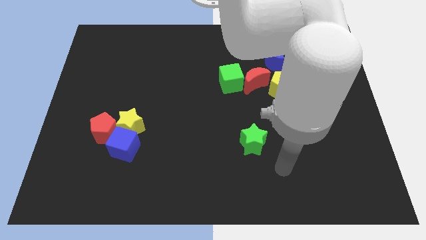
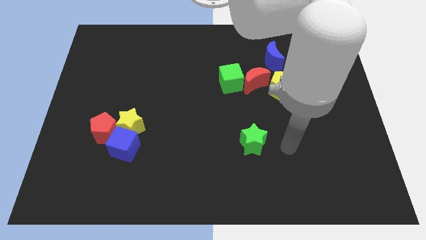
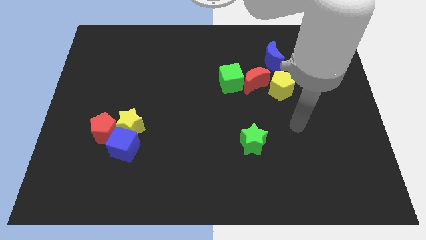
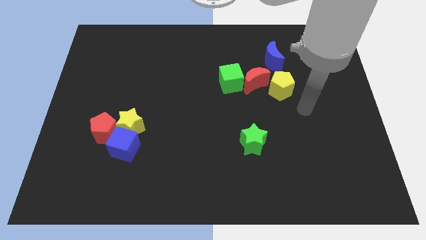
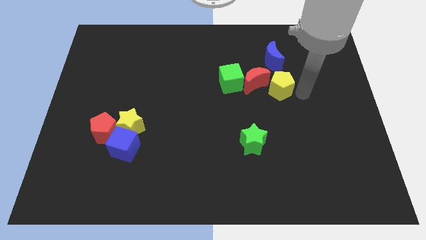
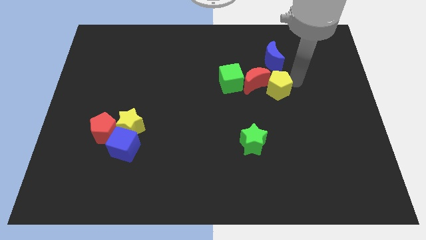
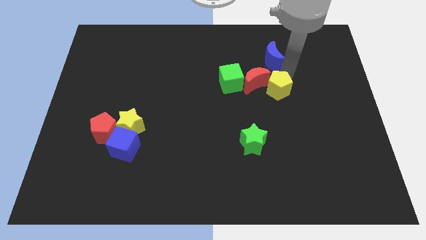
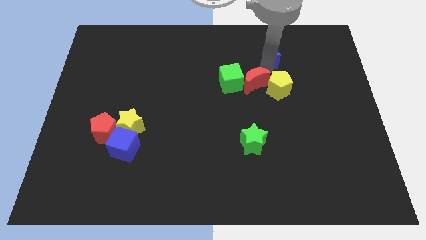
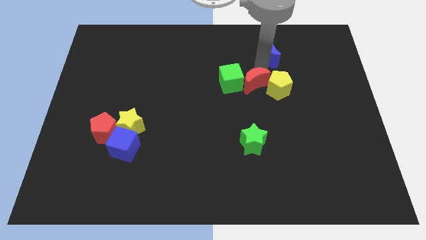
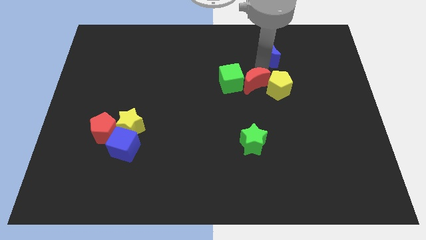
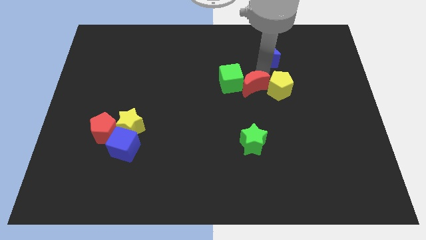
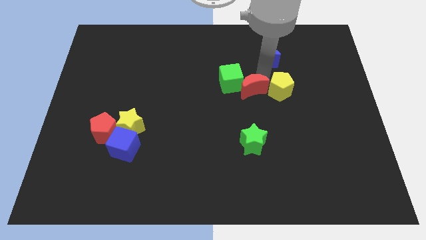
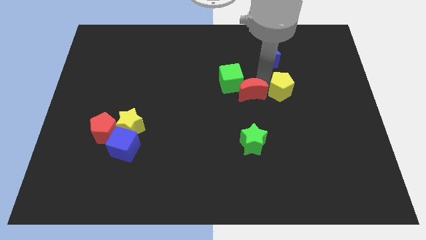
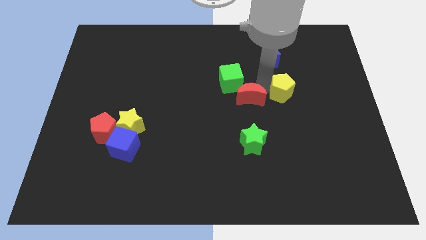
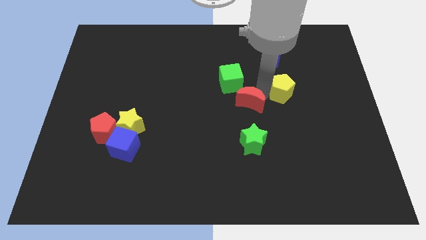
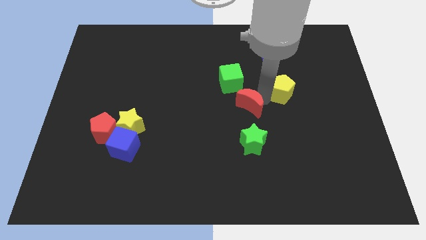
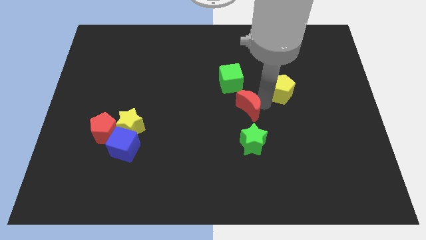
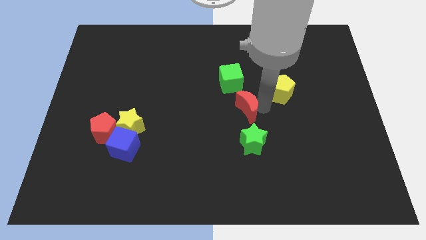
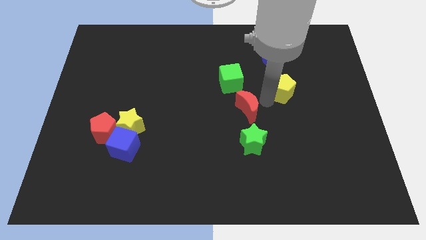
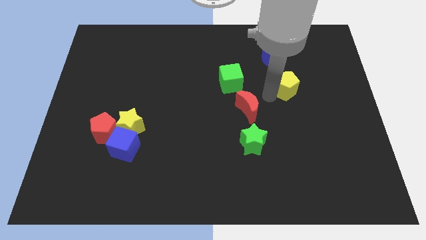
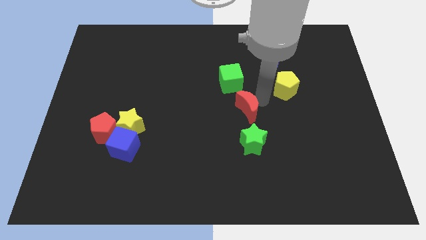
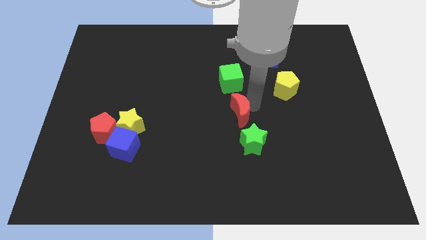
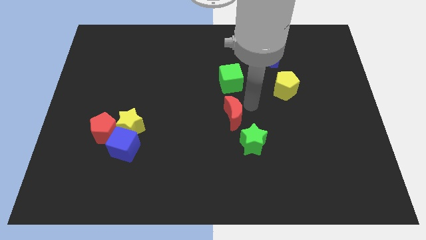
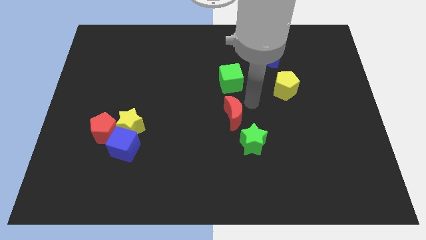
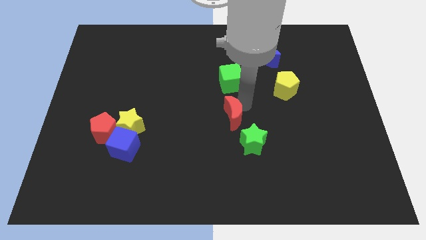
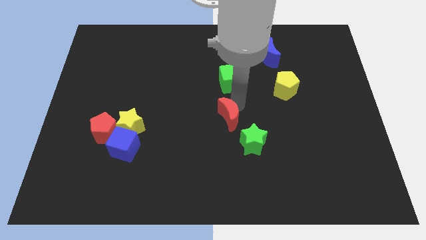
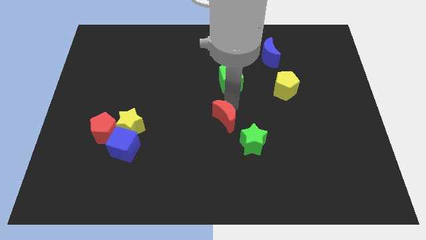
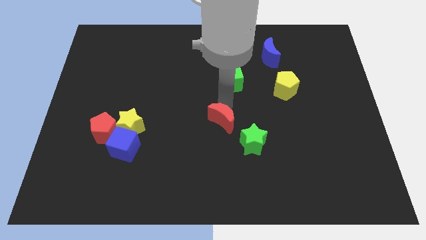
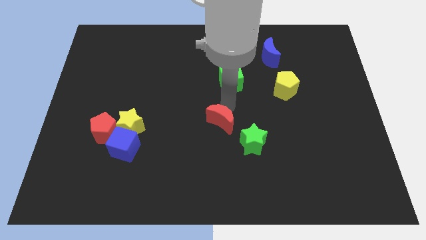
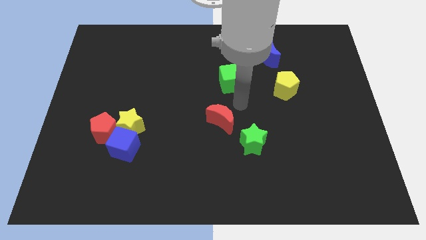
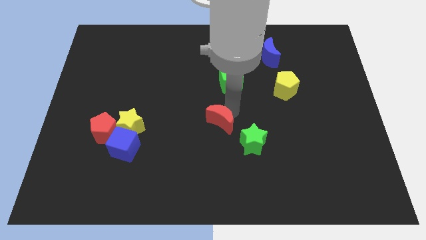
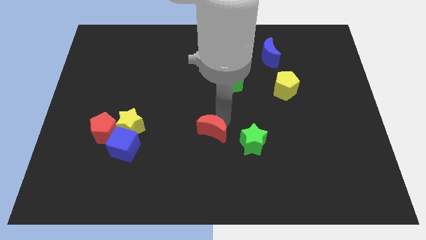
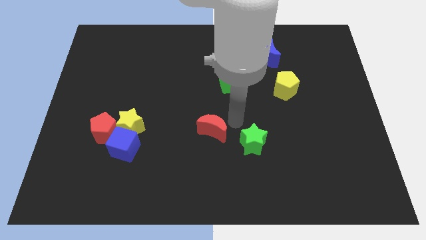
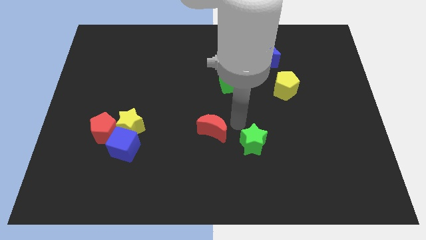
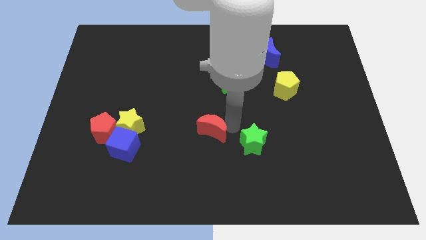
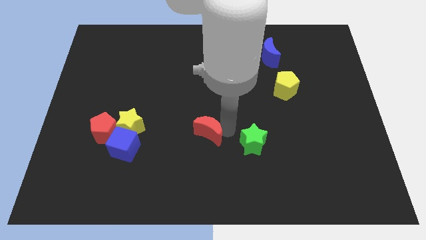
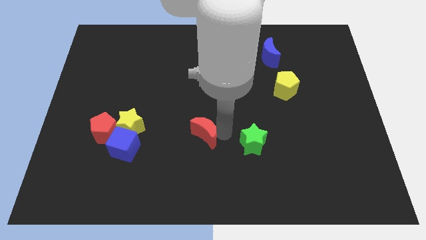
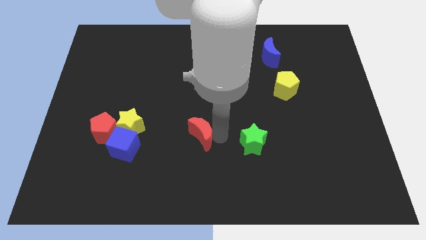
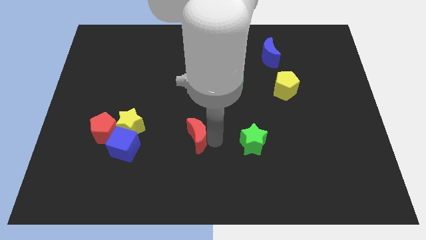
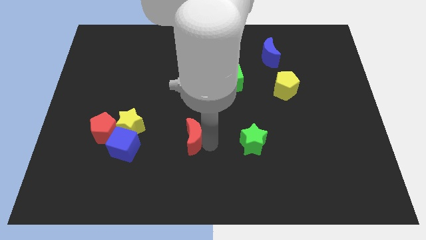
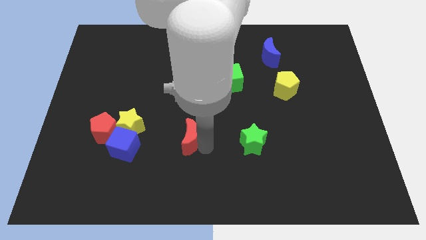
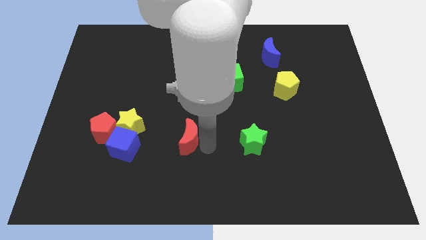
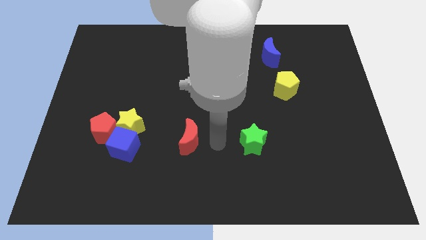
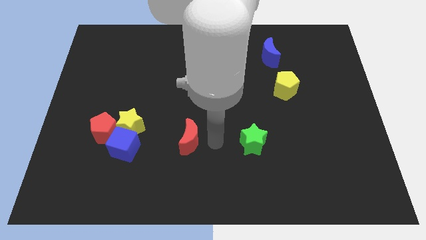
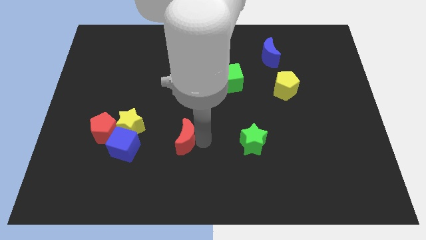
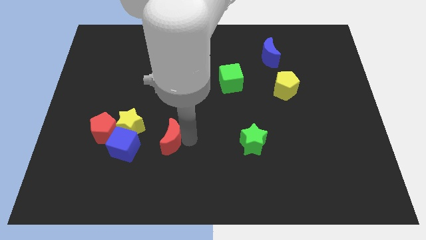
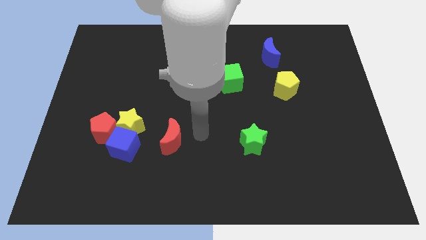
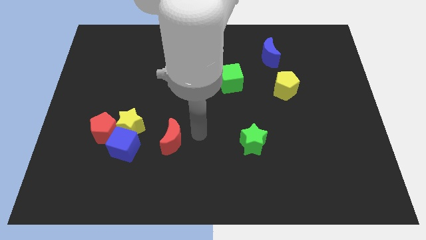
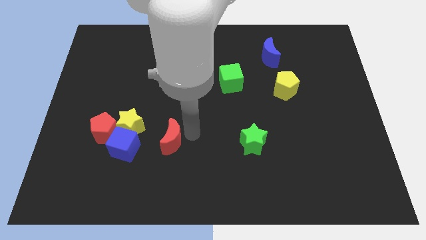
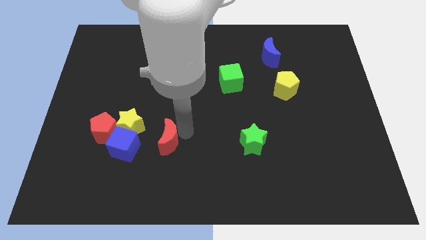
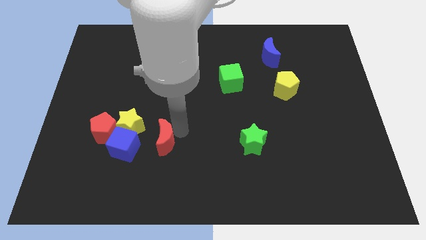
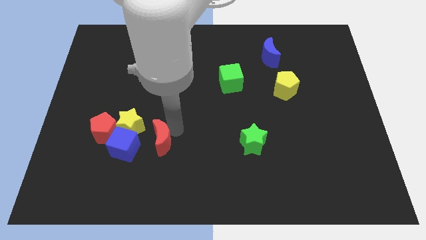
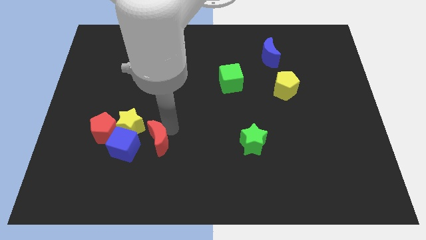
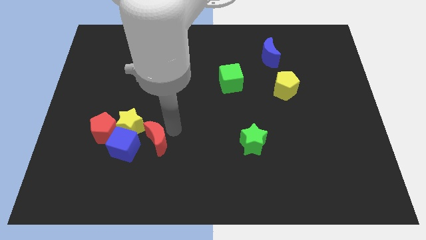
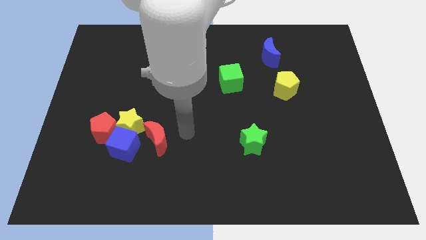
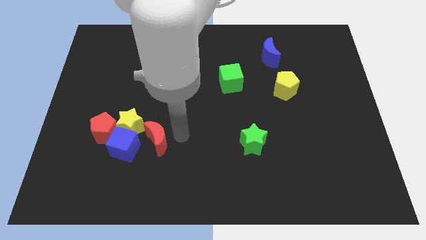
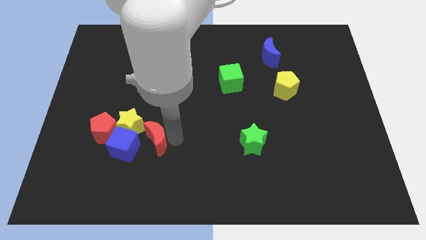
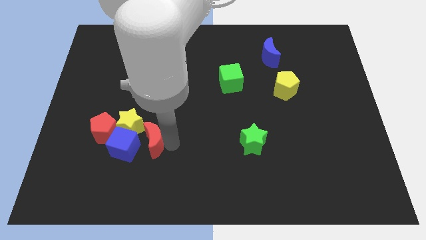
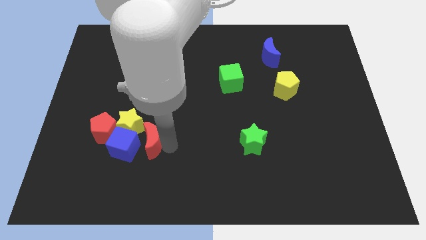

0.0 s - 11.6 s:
put the red moon next to the blue cube

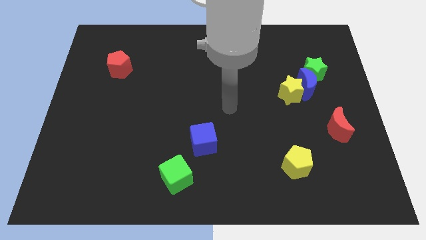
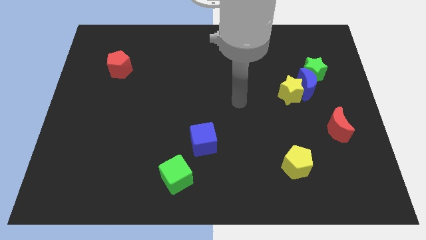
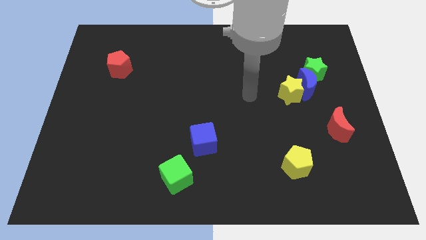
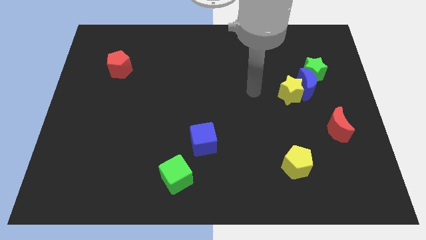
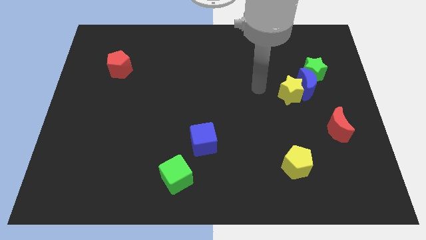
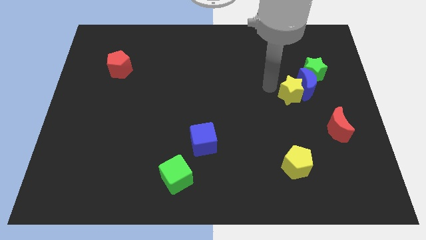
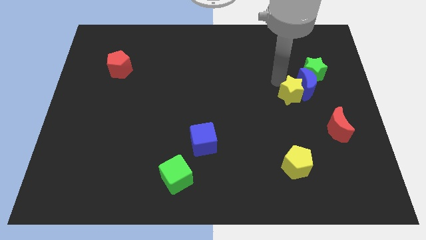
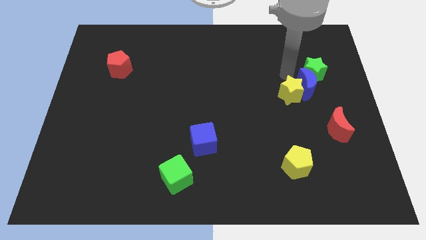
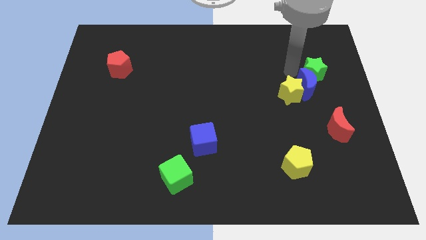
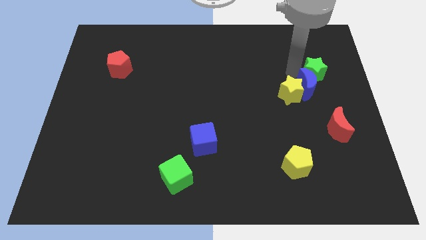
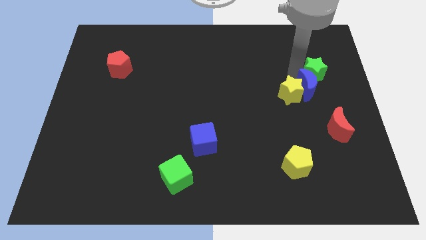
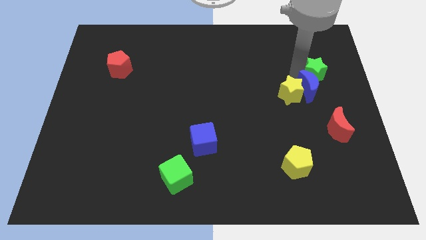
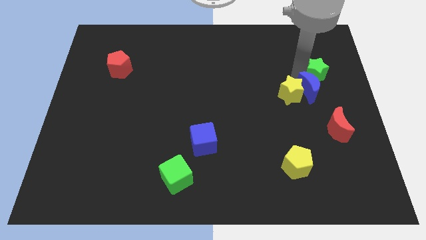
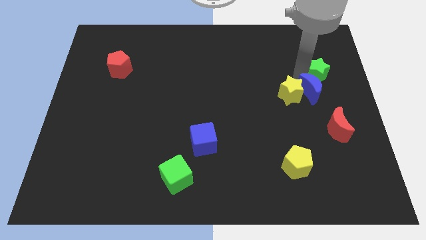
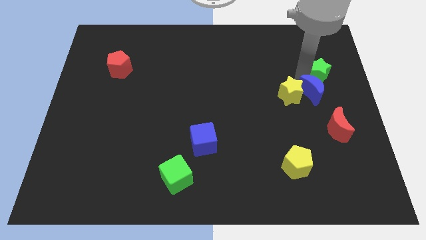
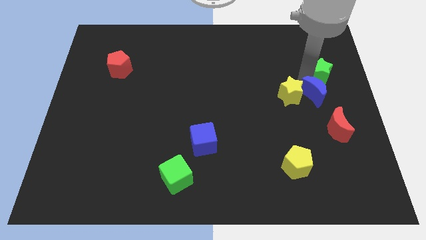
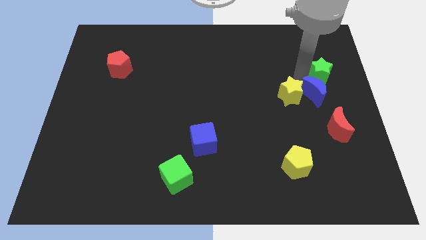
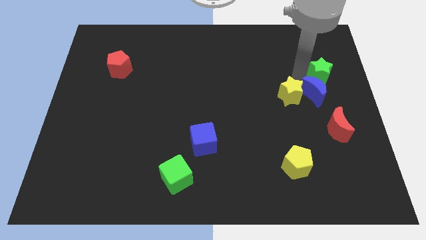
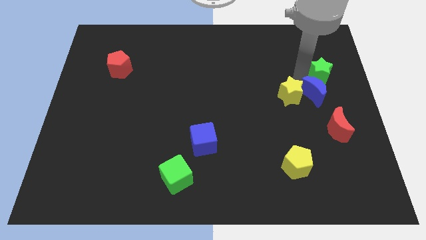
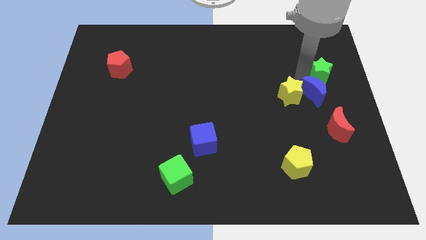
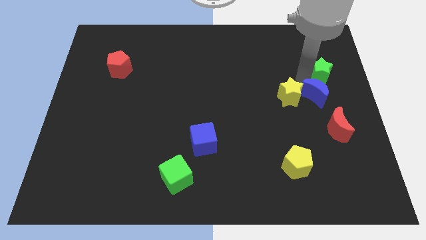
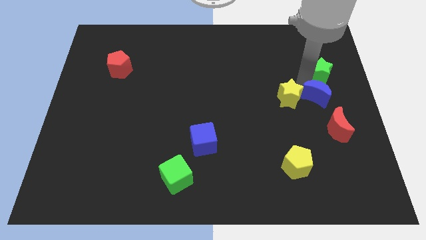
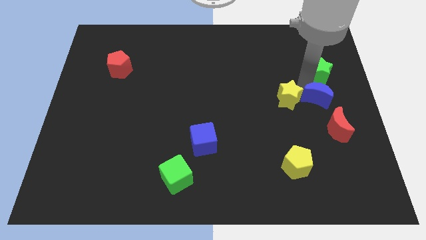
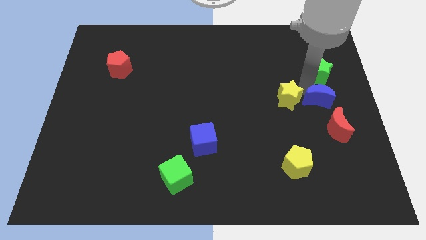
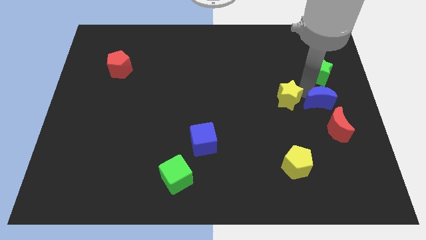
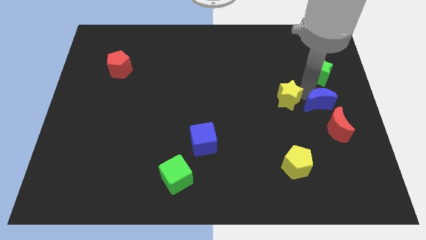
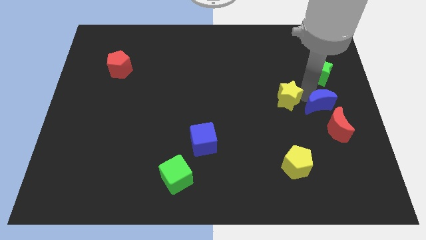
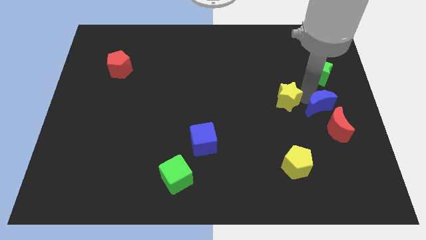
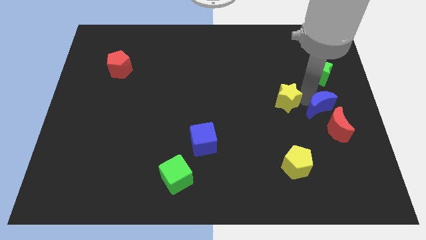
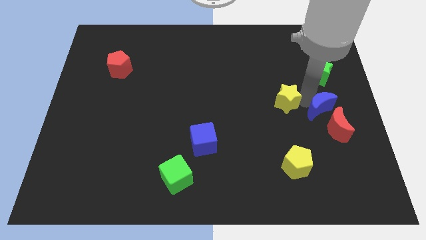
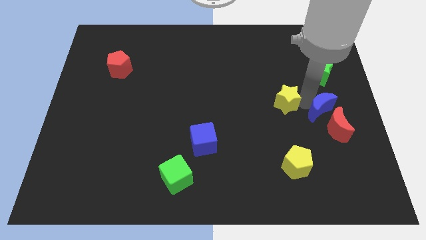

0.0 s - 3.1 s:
slide the blue moon towards the red moon
